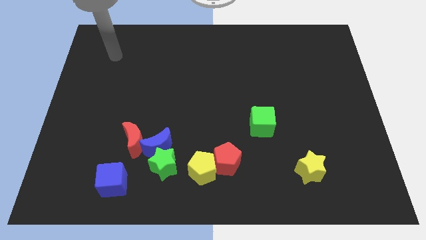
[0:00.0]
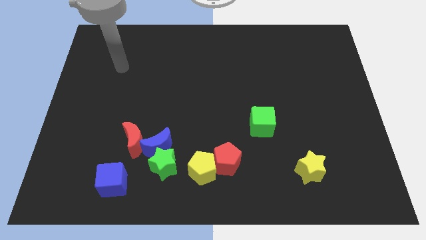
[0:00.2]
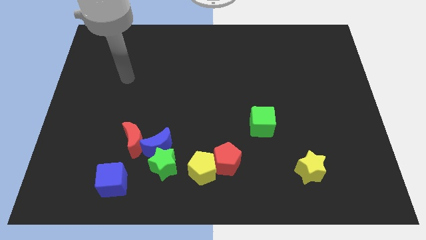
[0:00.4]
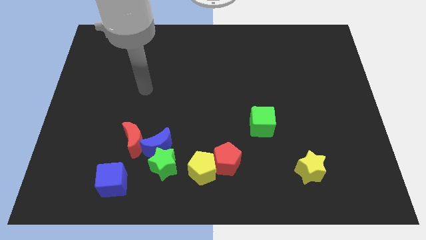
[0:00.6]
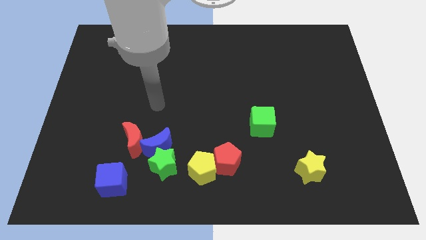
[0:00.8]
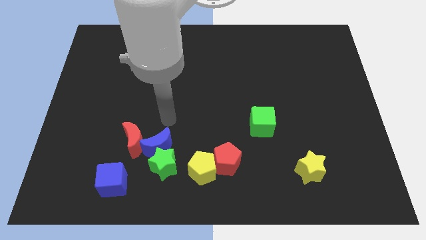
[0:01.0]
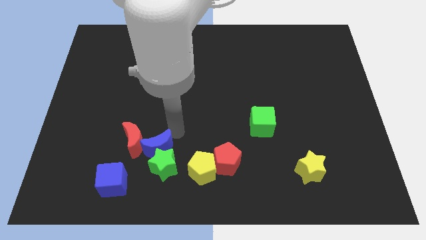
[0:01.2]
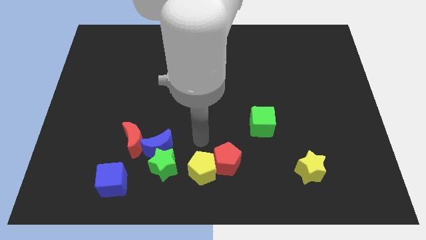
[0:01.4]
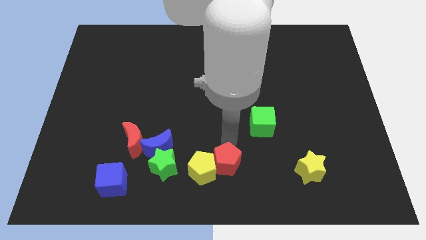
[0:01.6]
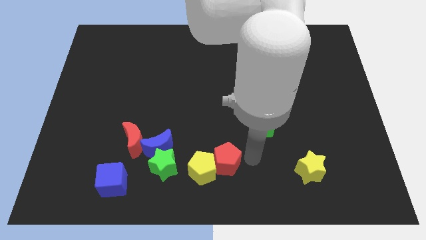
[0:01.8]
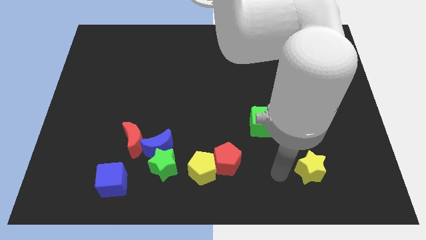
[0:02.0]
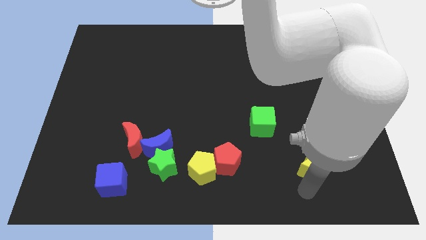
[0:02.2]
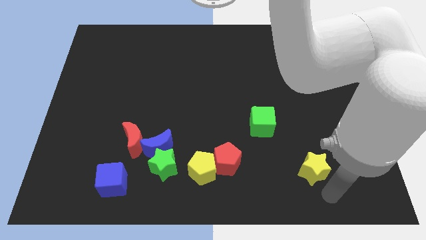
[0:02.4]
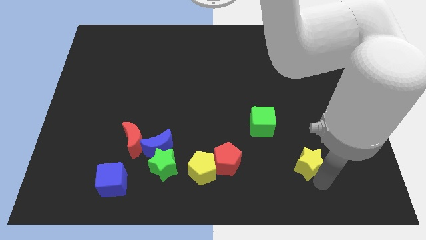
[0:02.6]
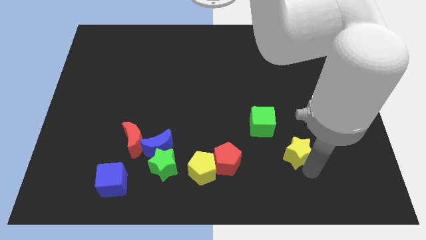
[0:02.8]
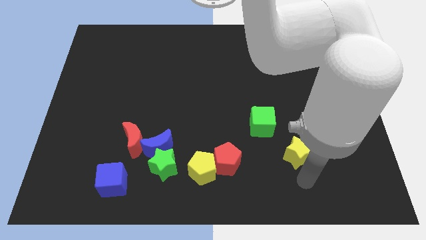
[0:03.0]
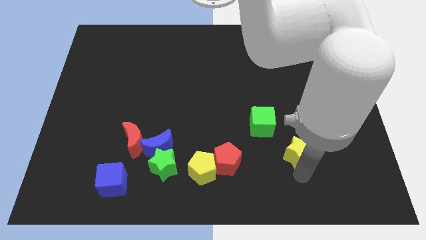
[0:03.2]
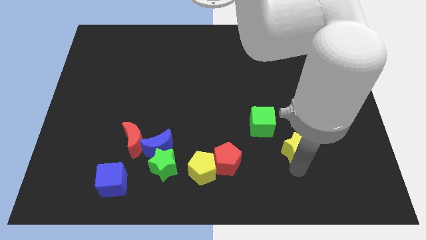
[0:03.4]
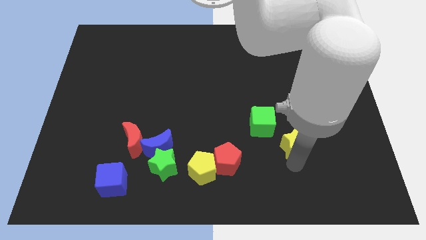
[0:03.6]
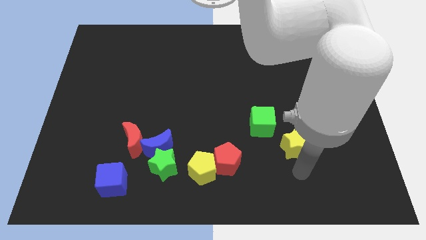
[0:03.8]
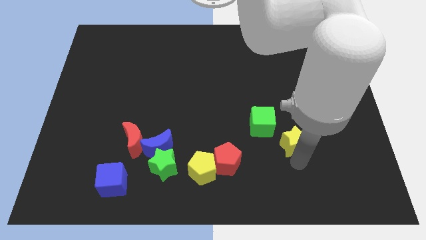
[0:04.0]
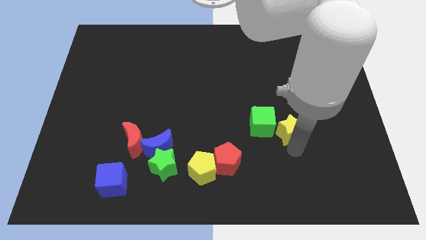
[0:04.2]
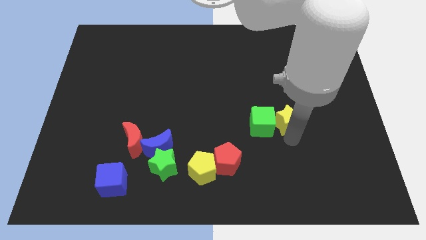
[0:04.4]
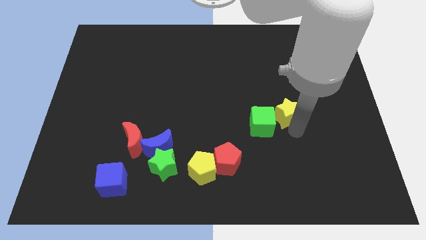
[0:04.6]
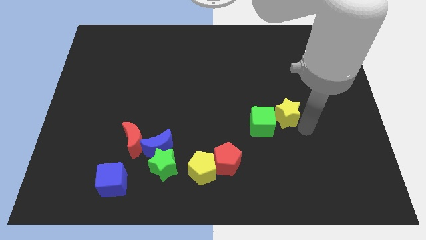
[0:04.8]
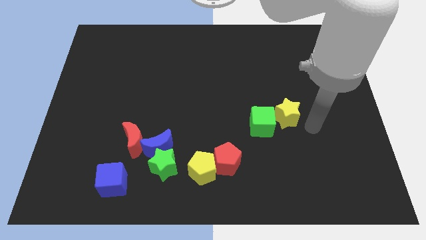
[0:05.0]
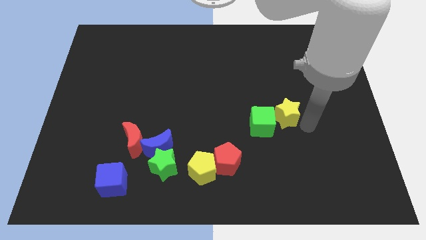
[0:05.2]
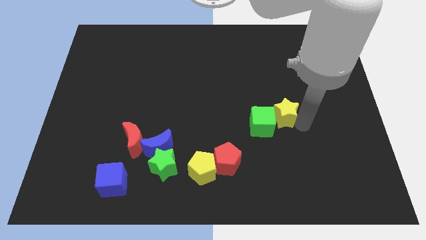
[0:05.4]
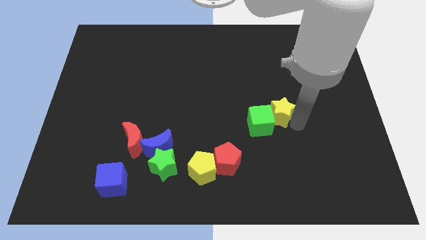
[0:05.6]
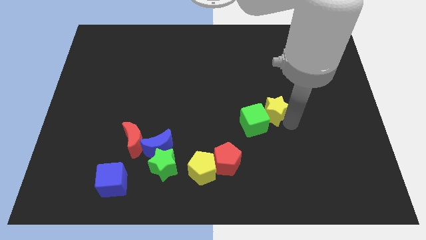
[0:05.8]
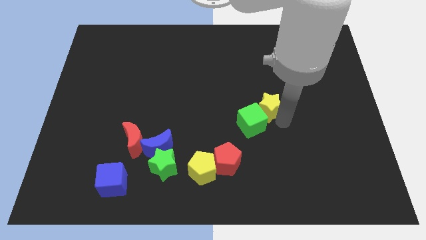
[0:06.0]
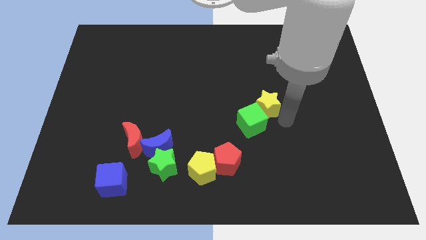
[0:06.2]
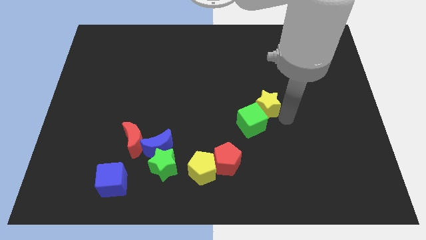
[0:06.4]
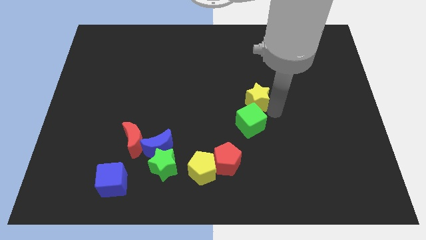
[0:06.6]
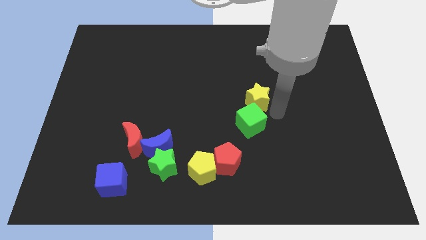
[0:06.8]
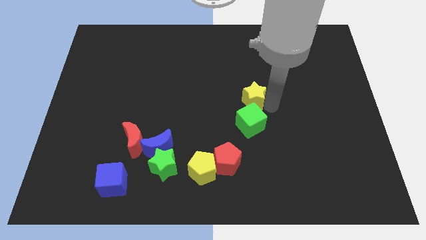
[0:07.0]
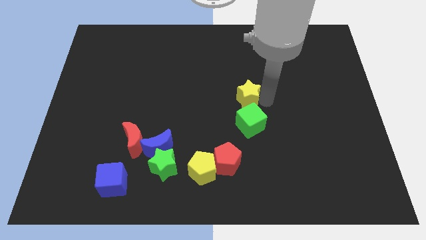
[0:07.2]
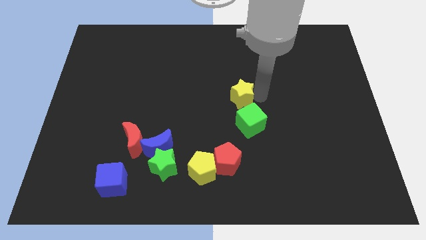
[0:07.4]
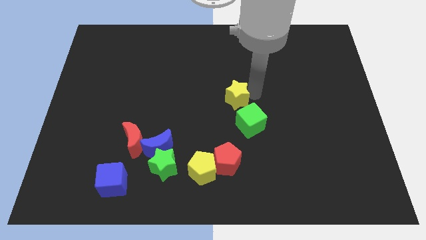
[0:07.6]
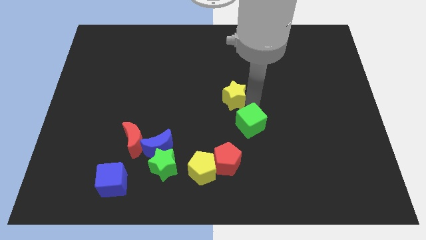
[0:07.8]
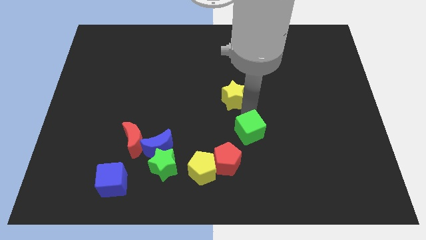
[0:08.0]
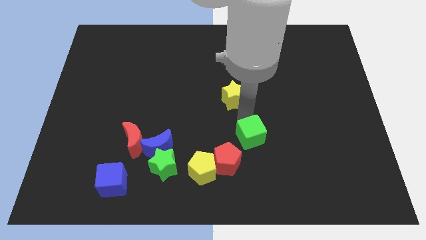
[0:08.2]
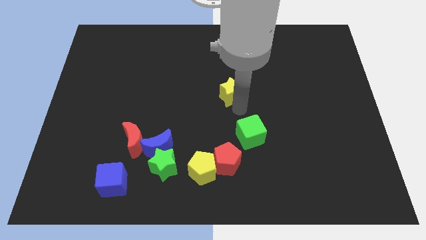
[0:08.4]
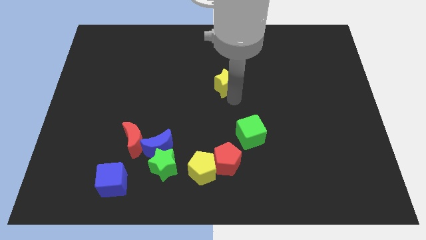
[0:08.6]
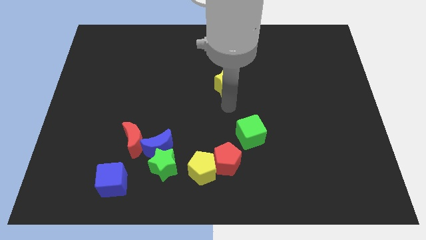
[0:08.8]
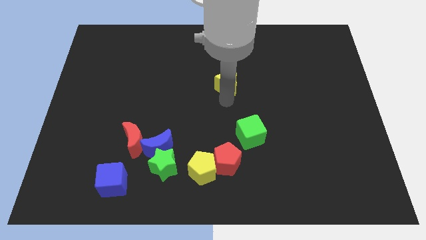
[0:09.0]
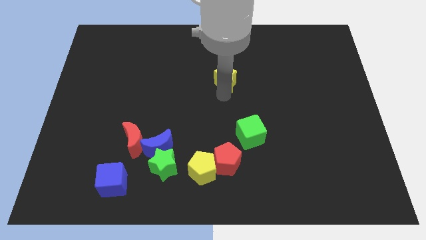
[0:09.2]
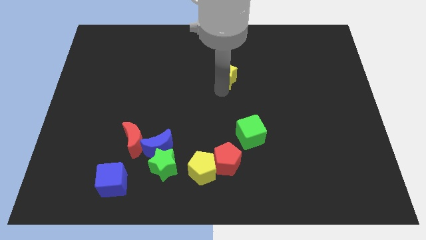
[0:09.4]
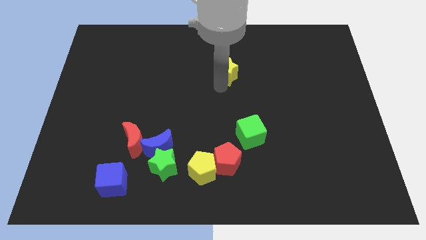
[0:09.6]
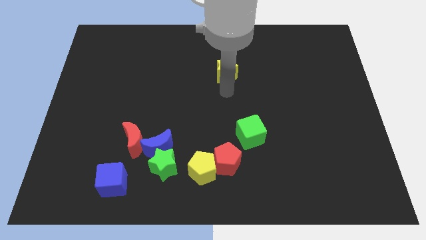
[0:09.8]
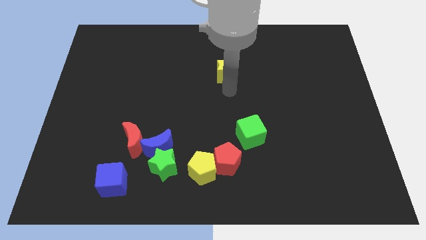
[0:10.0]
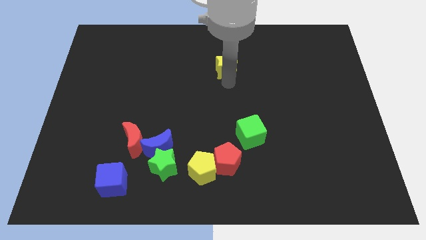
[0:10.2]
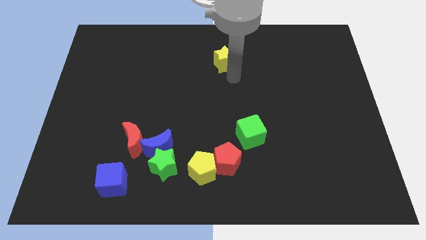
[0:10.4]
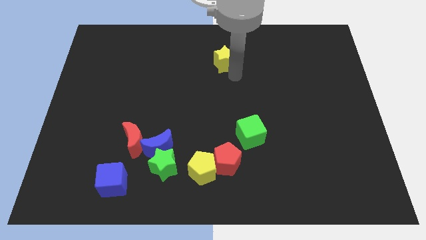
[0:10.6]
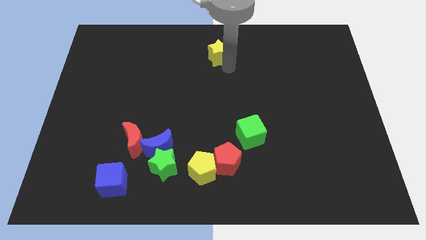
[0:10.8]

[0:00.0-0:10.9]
slide the yellow star to the towards your base
